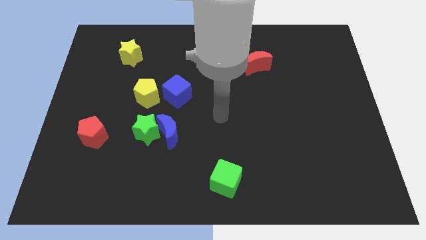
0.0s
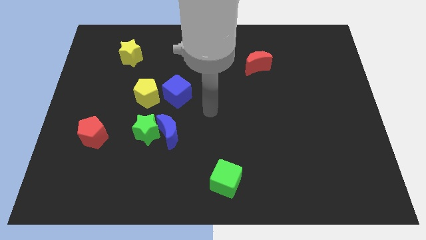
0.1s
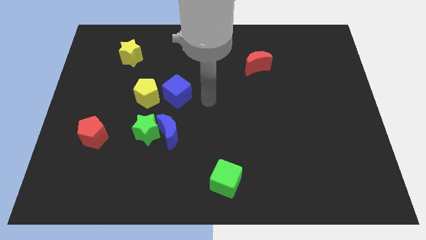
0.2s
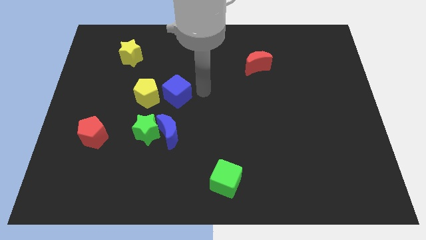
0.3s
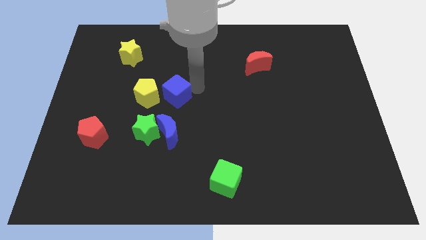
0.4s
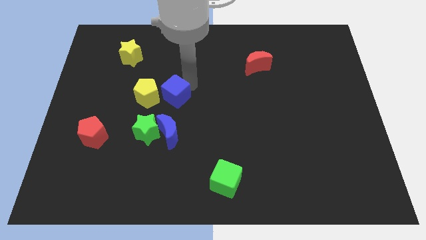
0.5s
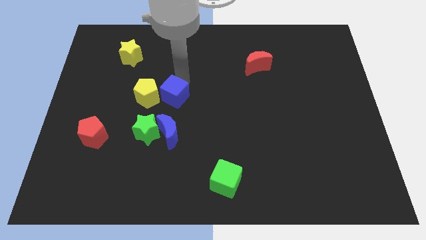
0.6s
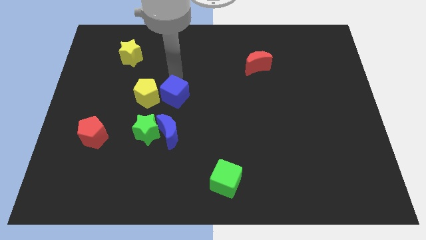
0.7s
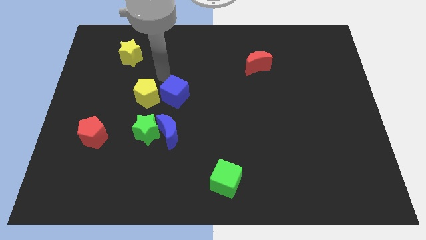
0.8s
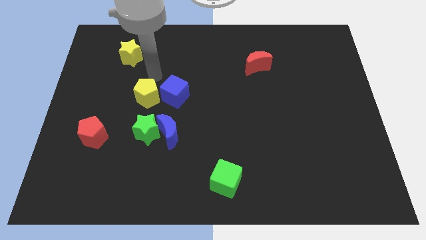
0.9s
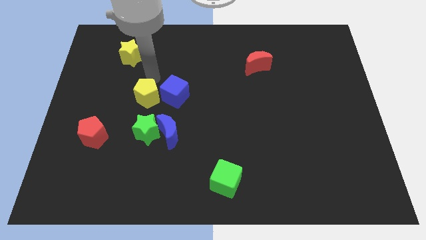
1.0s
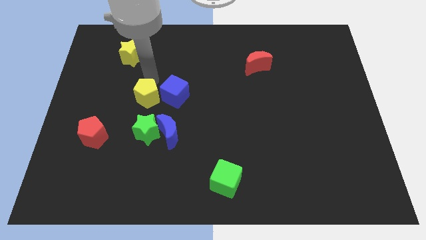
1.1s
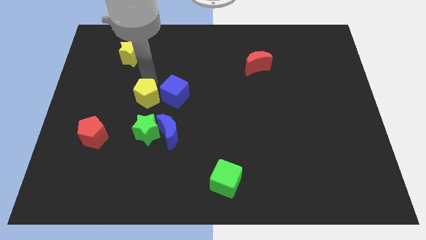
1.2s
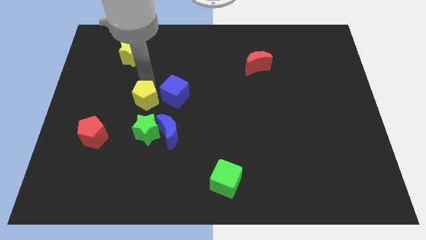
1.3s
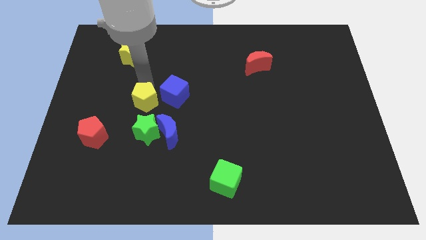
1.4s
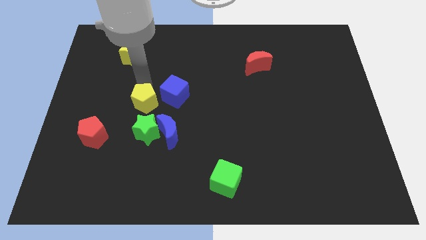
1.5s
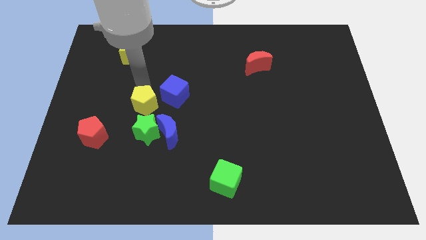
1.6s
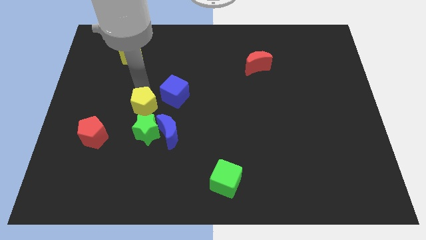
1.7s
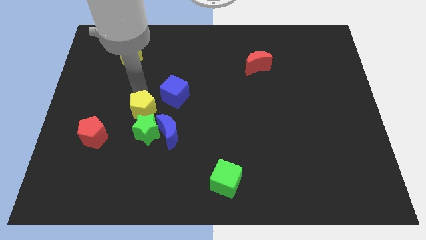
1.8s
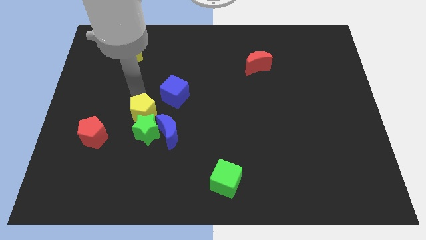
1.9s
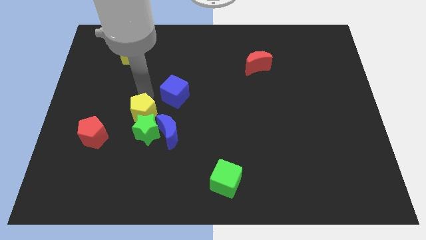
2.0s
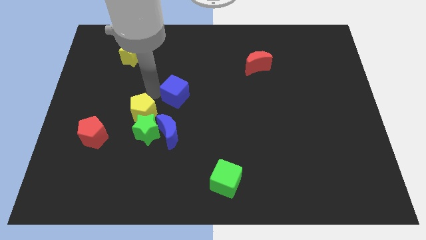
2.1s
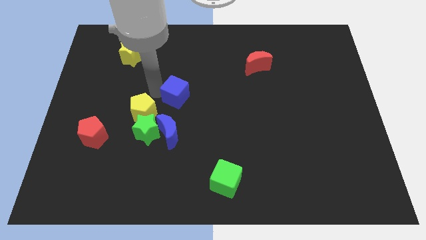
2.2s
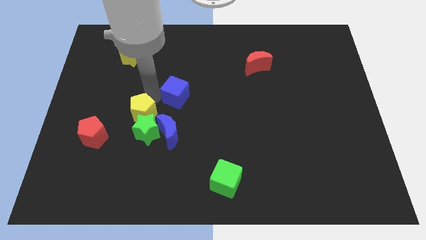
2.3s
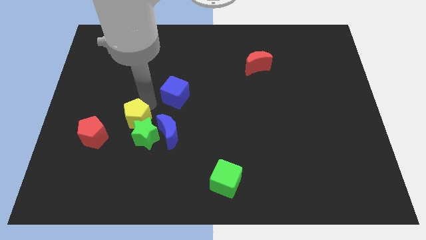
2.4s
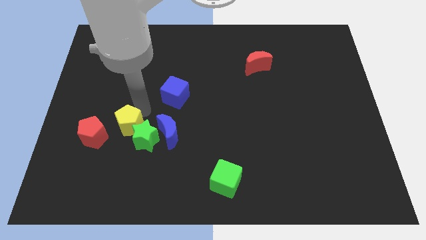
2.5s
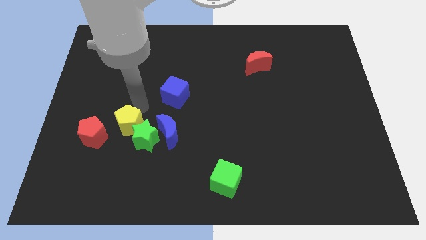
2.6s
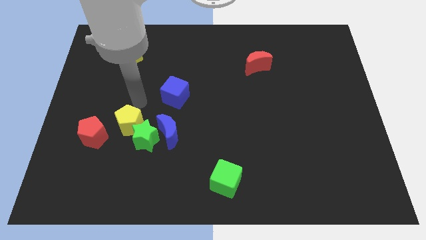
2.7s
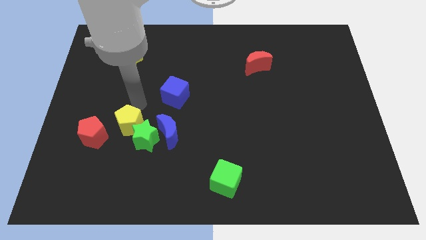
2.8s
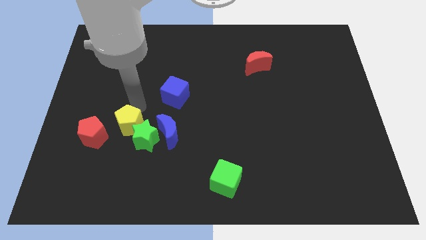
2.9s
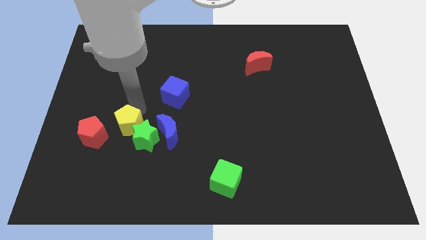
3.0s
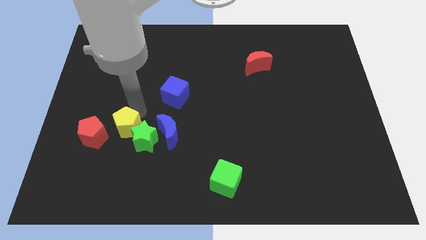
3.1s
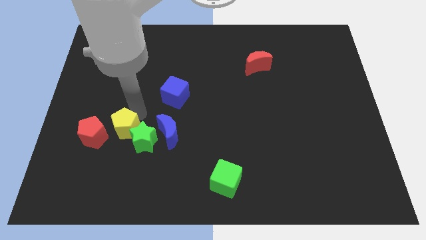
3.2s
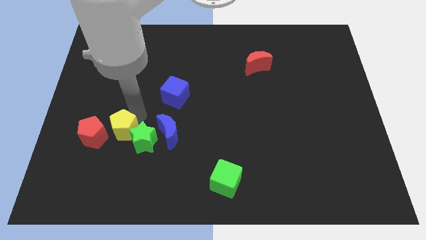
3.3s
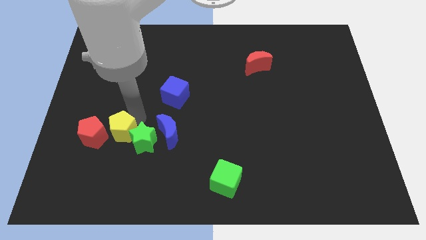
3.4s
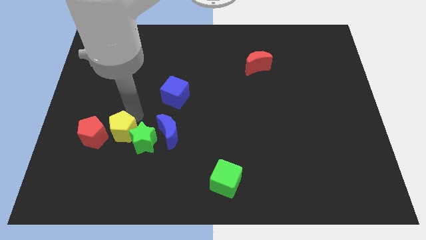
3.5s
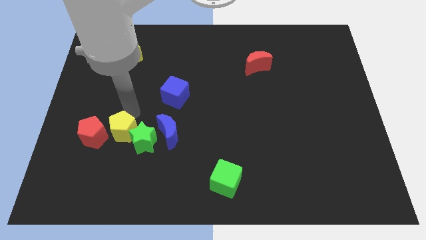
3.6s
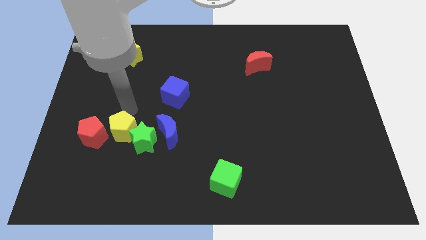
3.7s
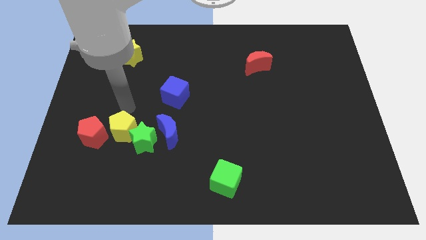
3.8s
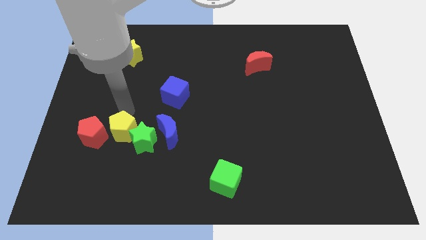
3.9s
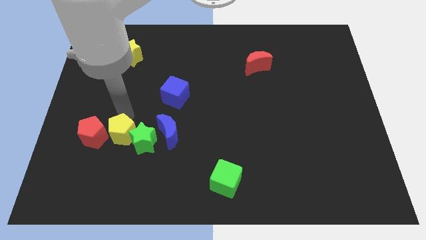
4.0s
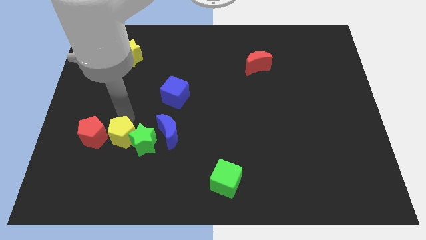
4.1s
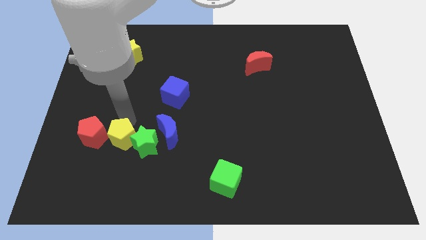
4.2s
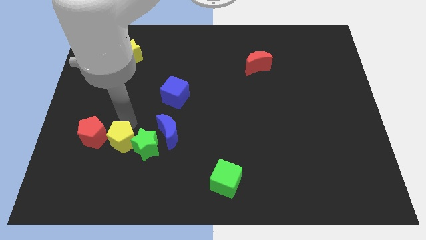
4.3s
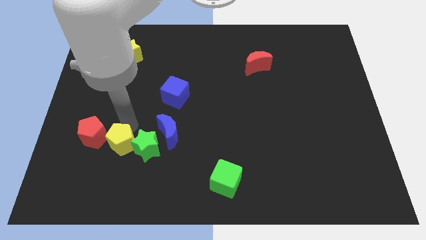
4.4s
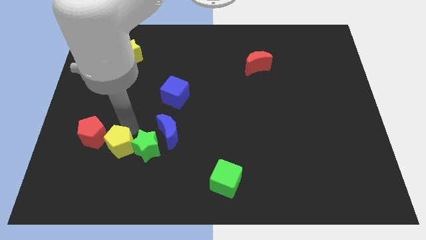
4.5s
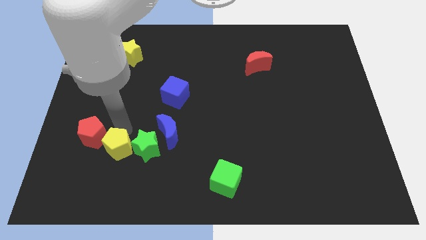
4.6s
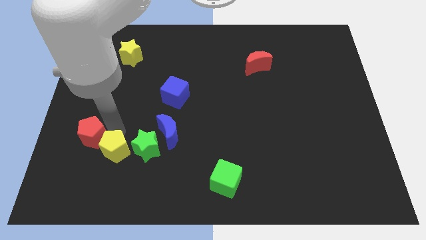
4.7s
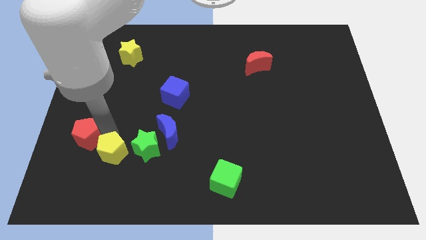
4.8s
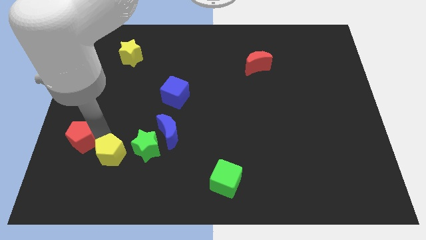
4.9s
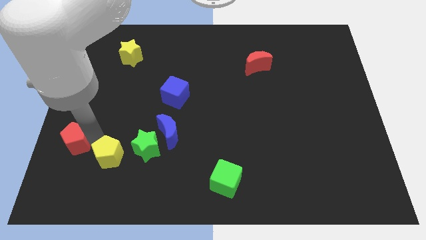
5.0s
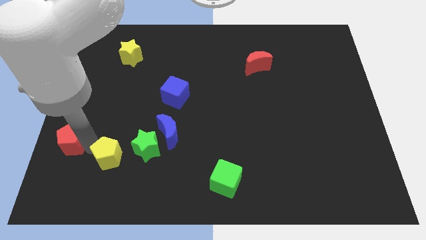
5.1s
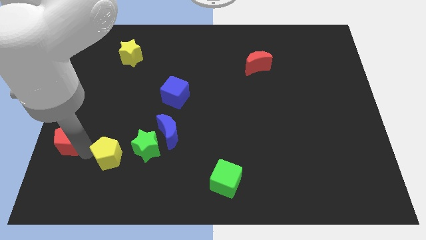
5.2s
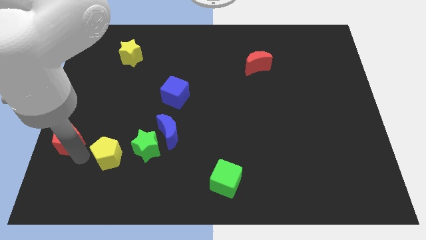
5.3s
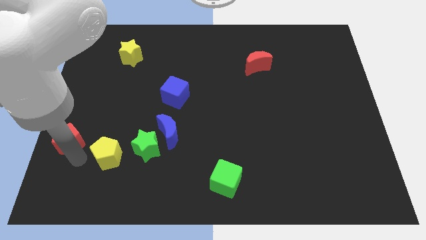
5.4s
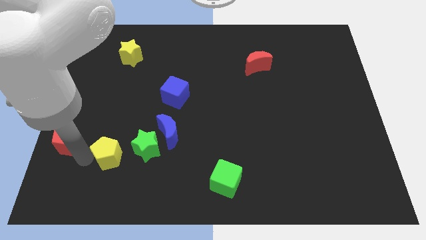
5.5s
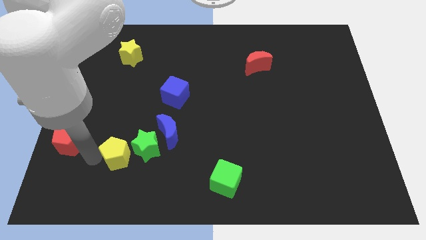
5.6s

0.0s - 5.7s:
slide the yellow pentagon to the bottom left of the blue moon

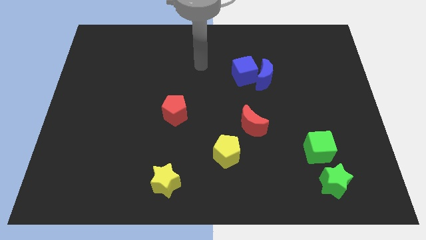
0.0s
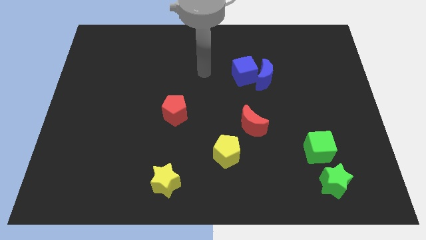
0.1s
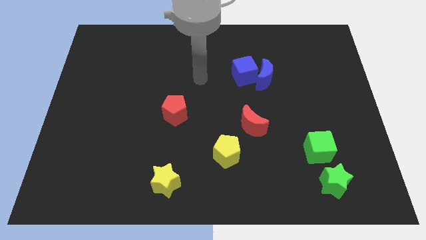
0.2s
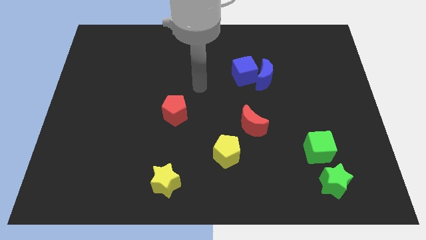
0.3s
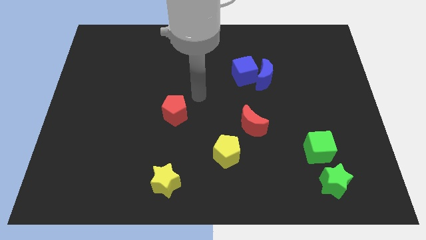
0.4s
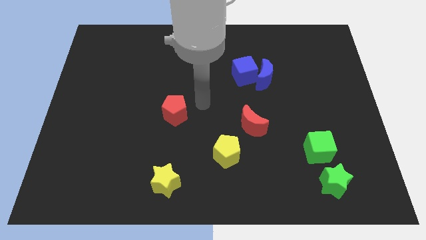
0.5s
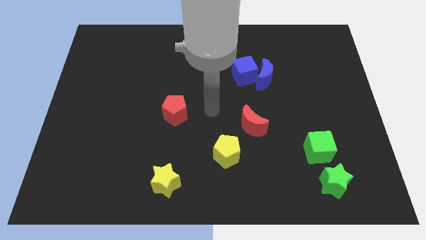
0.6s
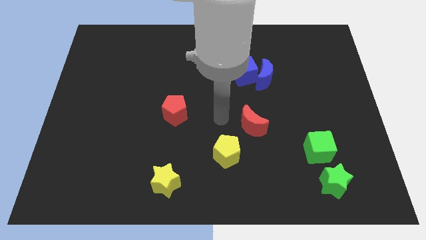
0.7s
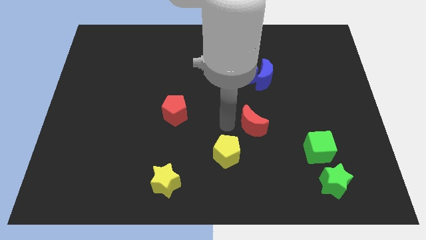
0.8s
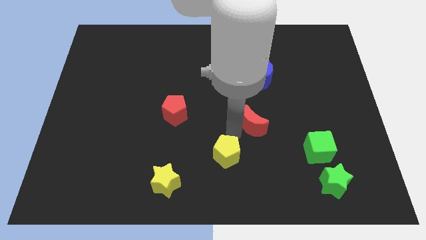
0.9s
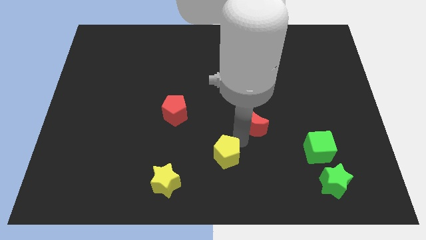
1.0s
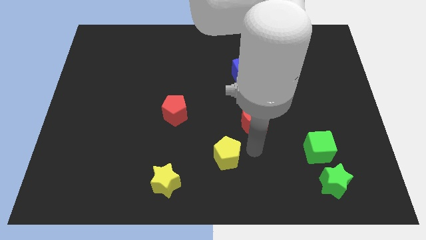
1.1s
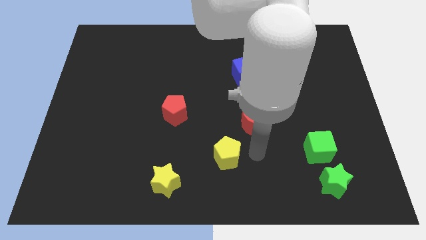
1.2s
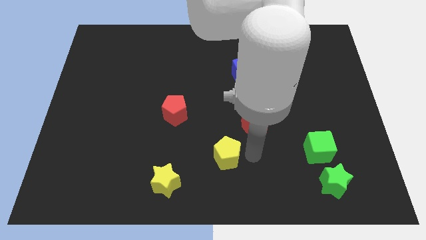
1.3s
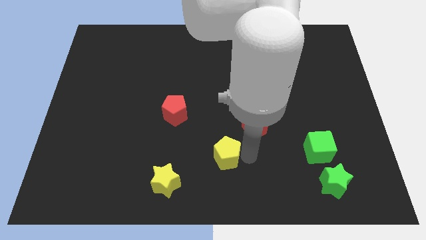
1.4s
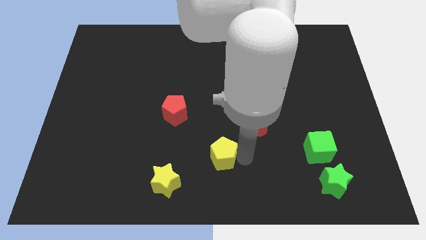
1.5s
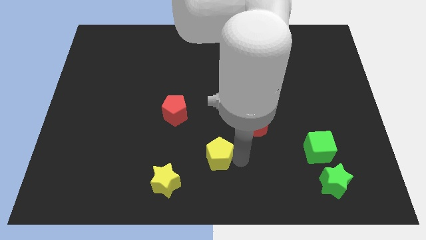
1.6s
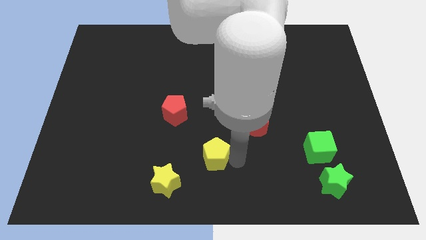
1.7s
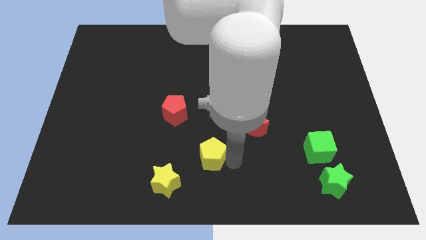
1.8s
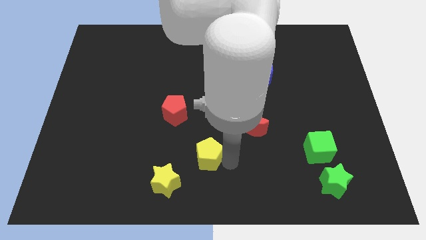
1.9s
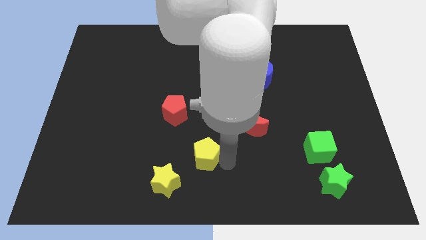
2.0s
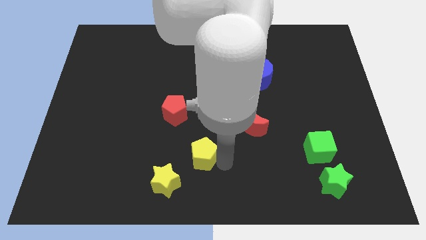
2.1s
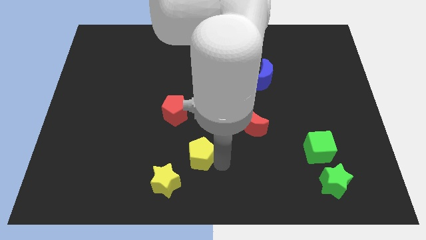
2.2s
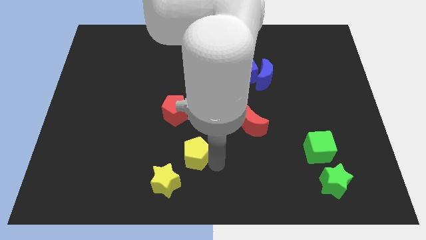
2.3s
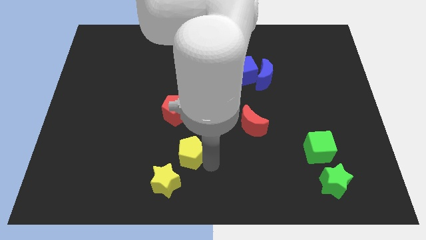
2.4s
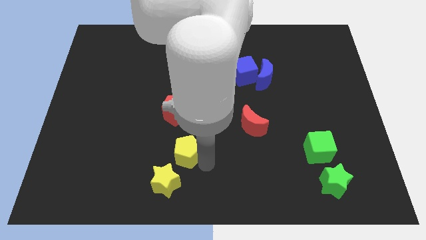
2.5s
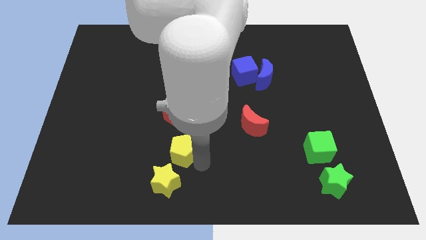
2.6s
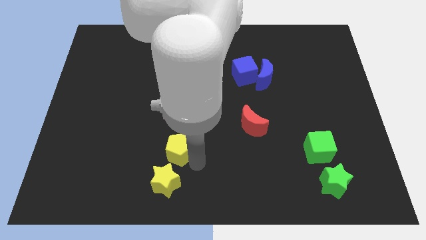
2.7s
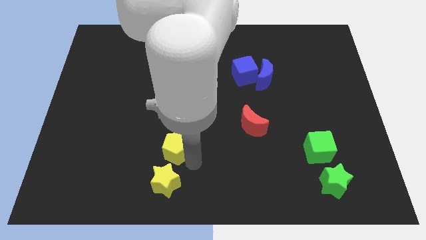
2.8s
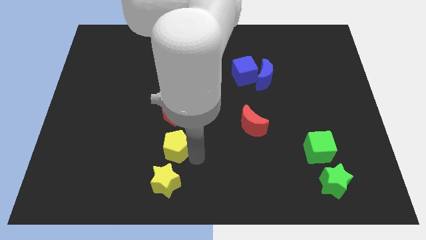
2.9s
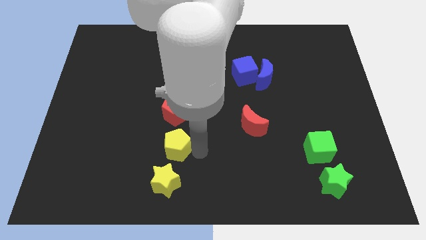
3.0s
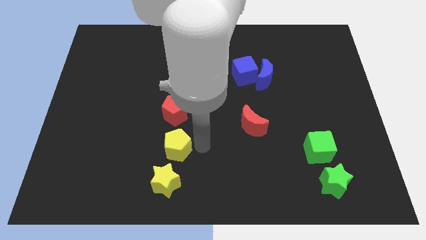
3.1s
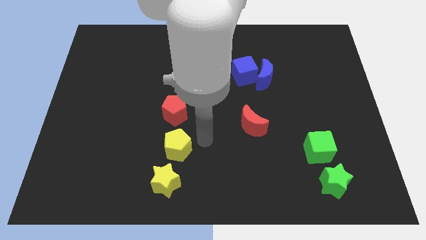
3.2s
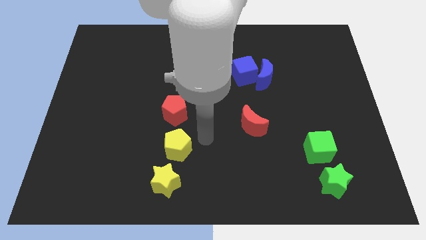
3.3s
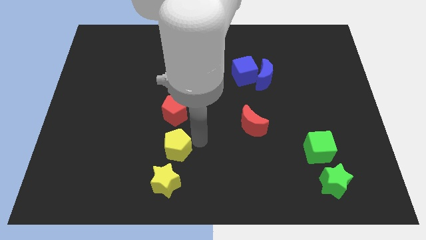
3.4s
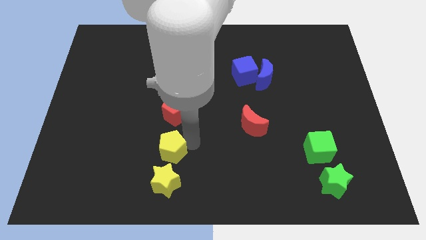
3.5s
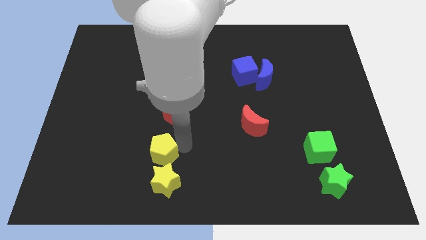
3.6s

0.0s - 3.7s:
push the yellow pentagon diagonally up and to the left of the yellow star
